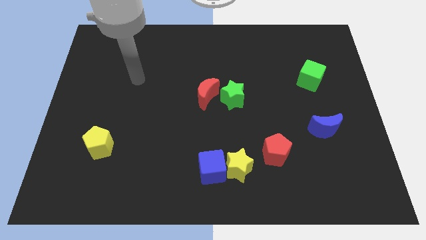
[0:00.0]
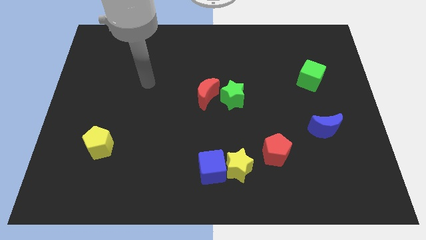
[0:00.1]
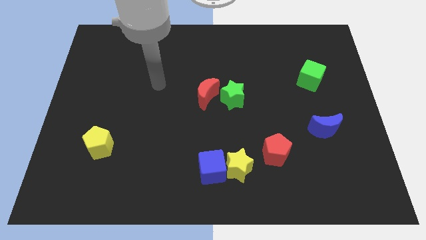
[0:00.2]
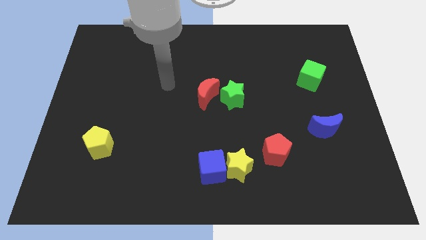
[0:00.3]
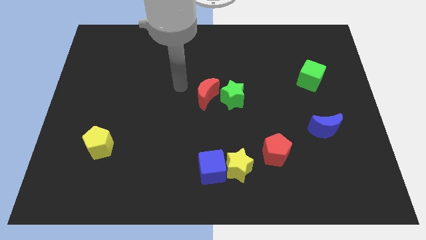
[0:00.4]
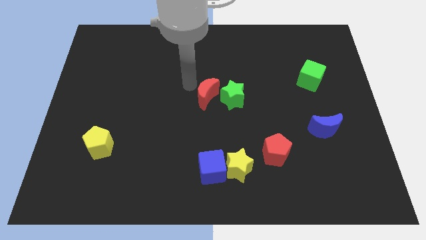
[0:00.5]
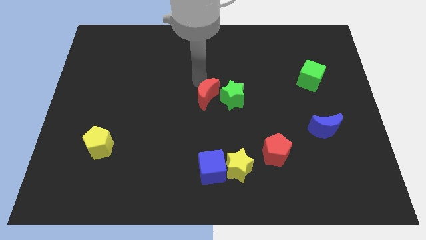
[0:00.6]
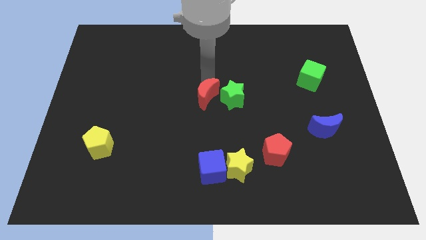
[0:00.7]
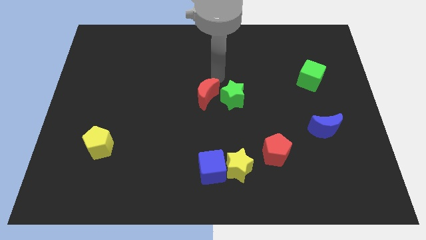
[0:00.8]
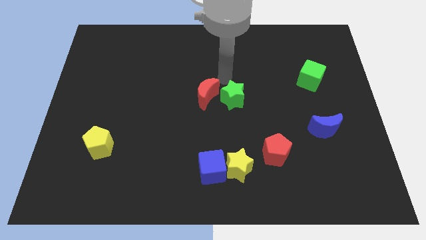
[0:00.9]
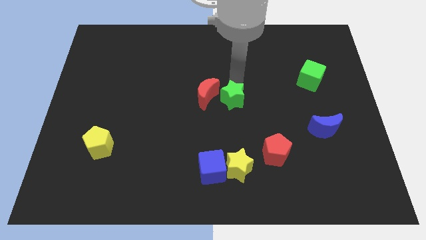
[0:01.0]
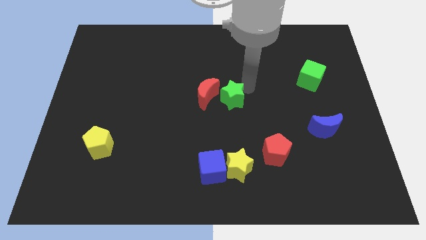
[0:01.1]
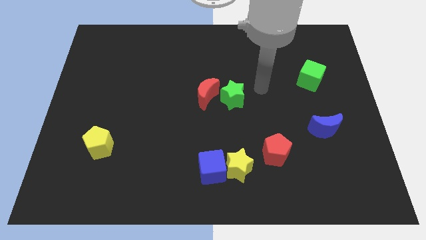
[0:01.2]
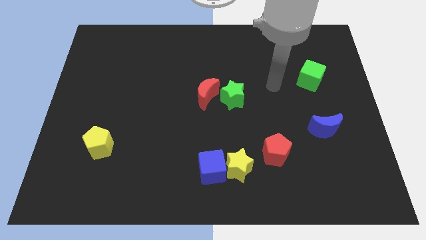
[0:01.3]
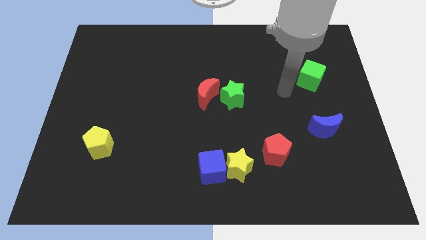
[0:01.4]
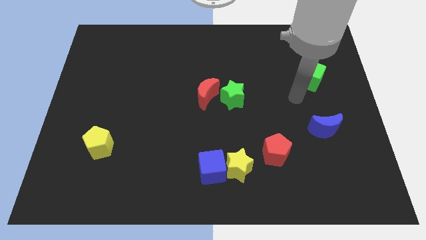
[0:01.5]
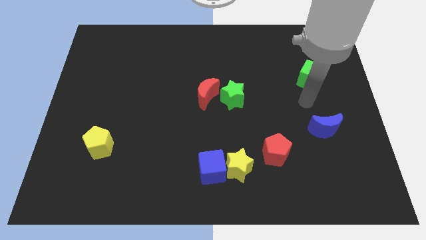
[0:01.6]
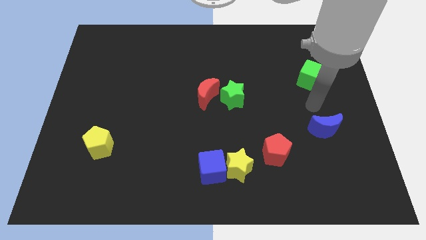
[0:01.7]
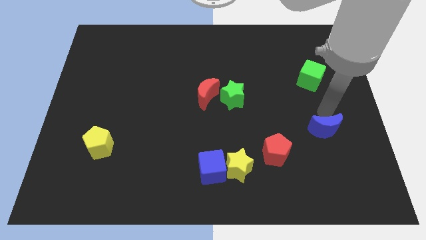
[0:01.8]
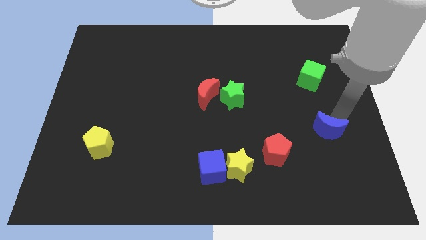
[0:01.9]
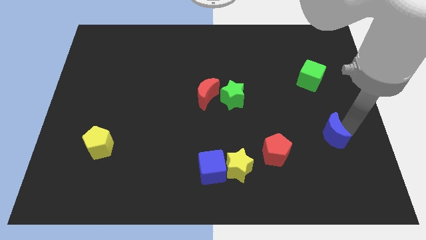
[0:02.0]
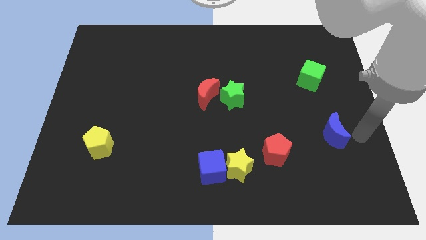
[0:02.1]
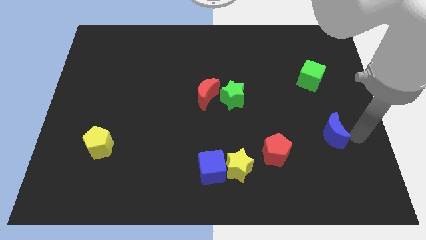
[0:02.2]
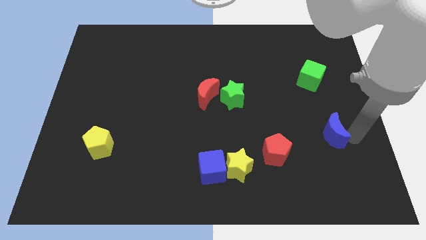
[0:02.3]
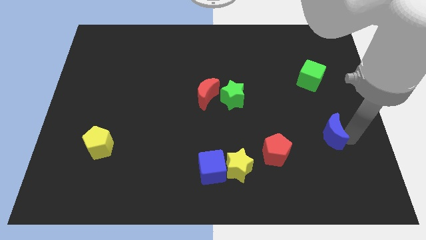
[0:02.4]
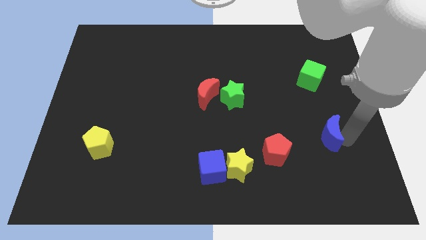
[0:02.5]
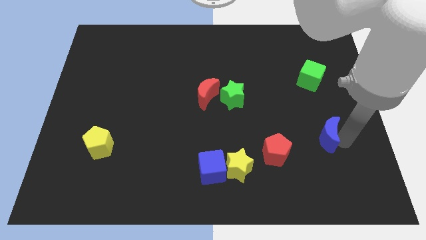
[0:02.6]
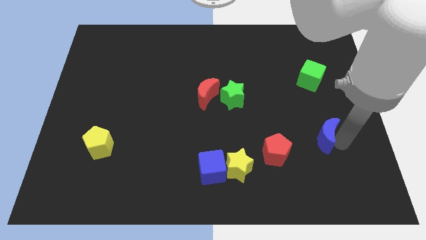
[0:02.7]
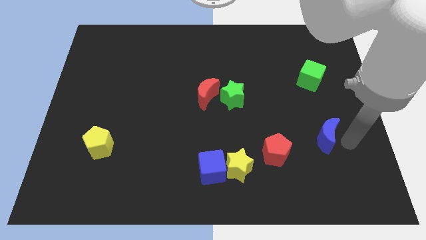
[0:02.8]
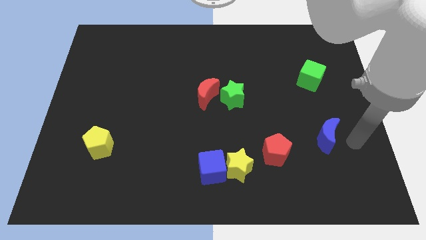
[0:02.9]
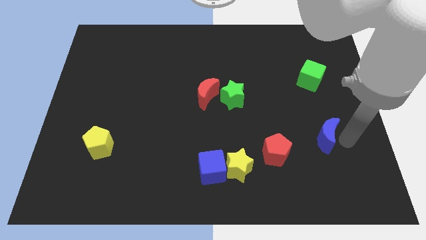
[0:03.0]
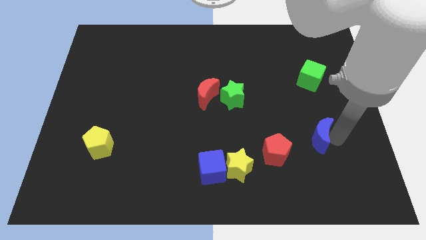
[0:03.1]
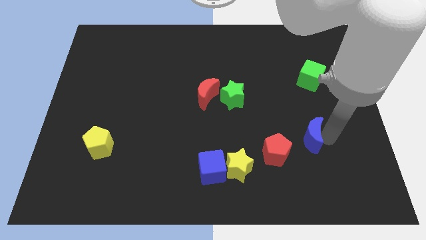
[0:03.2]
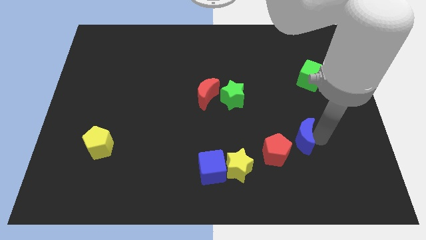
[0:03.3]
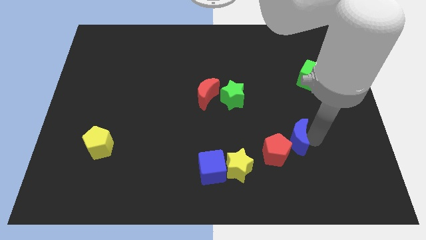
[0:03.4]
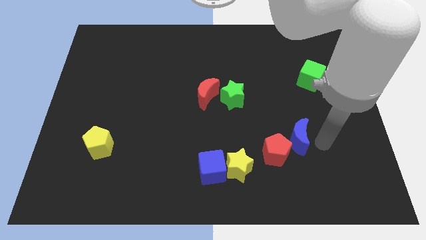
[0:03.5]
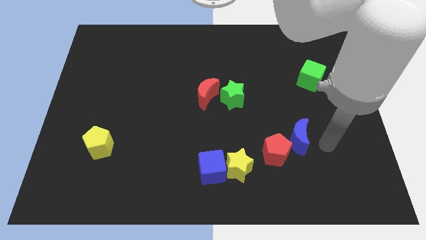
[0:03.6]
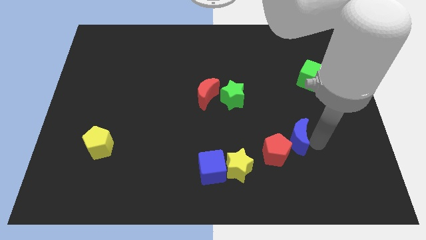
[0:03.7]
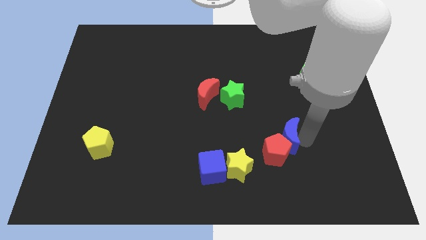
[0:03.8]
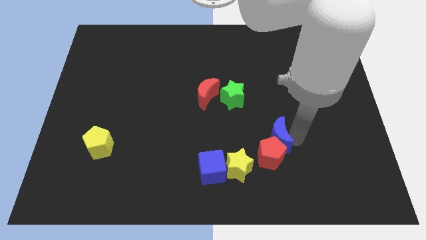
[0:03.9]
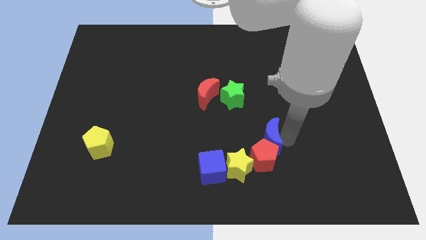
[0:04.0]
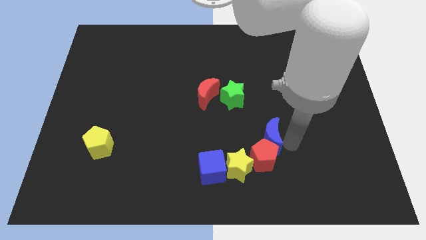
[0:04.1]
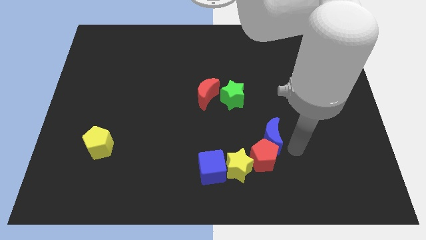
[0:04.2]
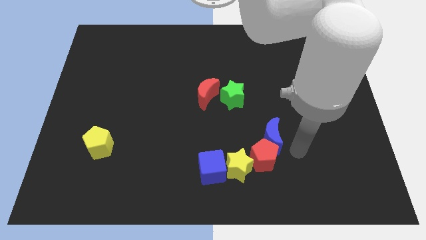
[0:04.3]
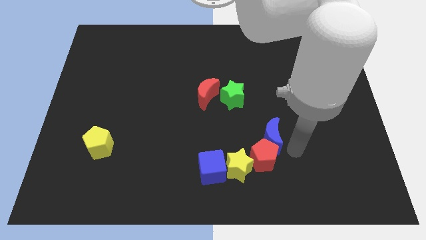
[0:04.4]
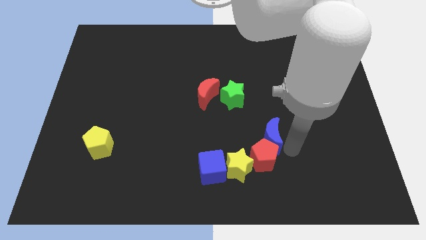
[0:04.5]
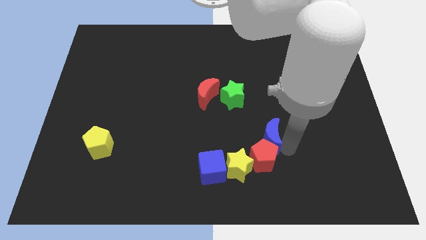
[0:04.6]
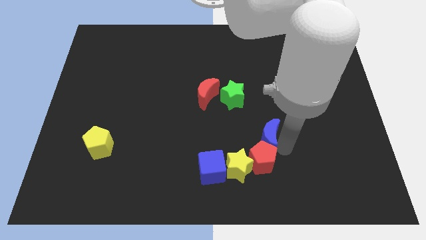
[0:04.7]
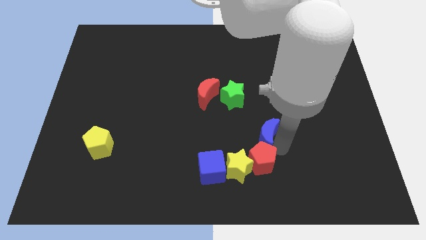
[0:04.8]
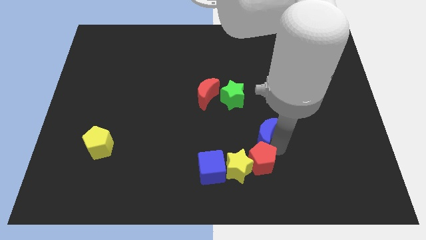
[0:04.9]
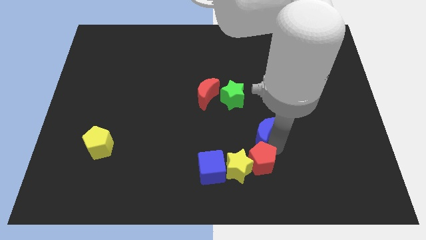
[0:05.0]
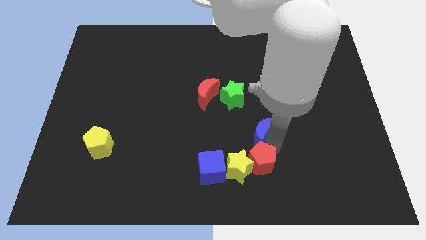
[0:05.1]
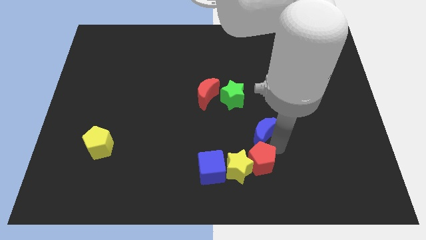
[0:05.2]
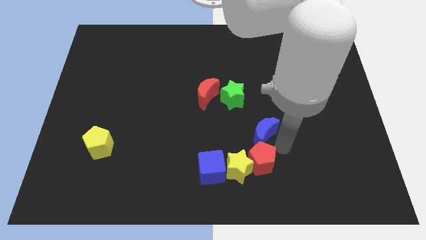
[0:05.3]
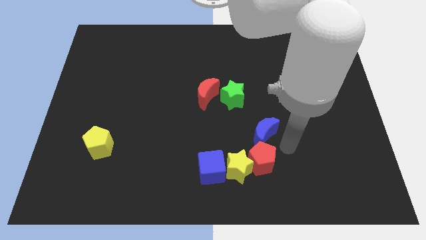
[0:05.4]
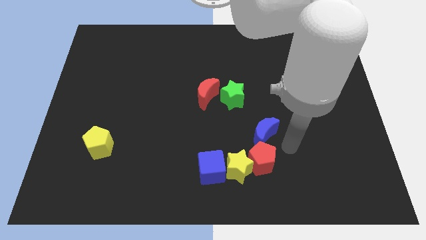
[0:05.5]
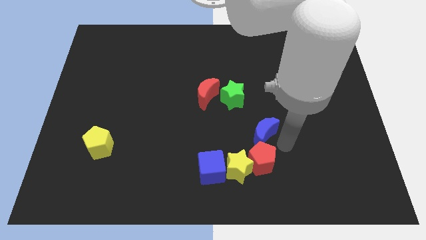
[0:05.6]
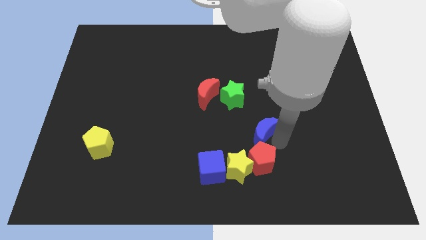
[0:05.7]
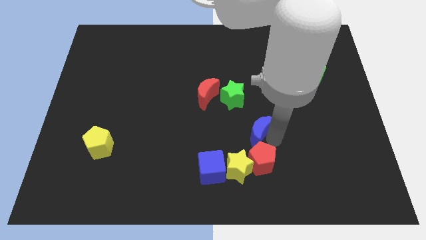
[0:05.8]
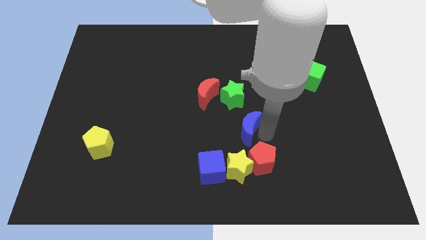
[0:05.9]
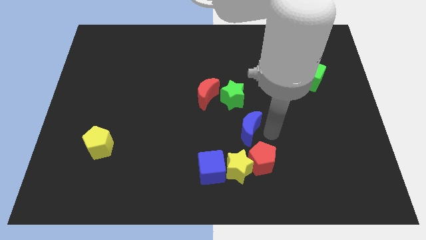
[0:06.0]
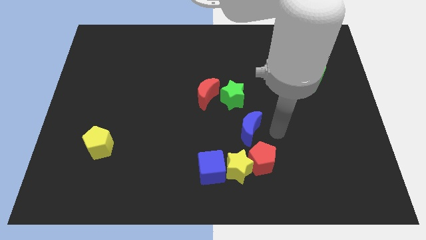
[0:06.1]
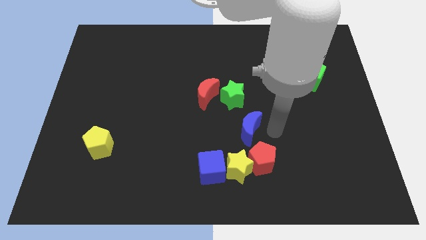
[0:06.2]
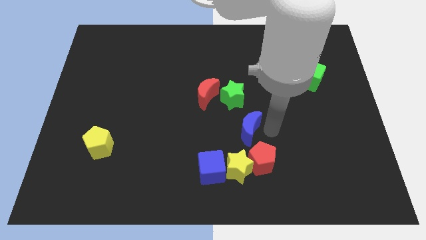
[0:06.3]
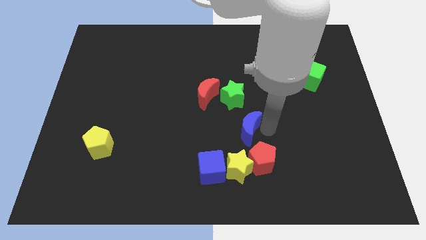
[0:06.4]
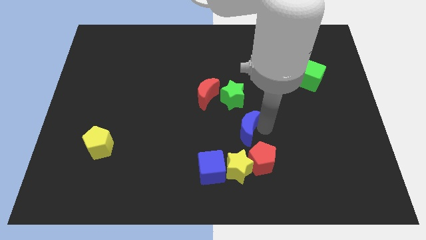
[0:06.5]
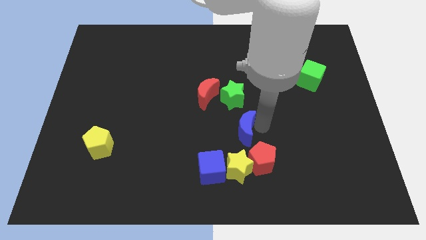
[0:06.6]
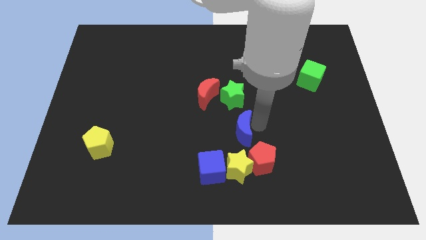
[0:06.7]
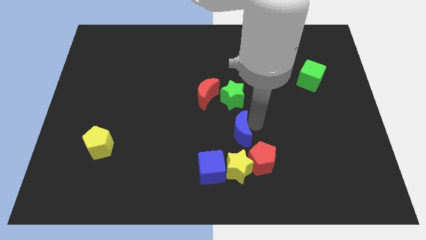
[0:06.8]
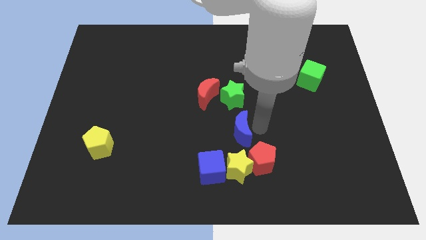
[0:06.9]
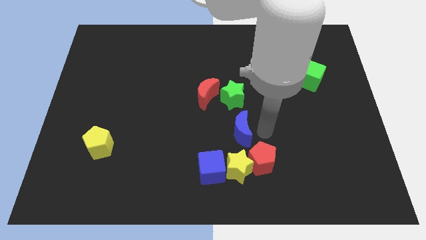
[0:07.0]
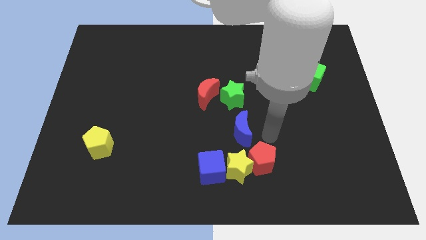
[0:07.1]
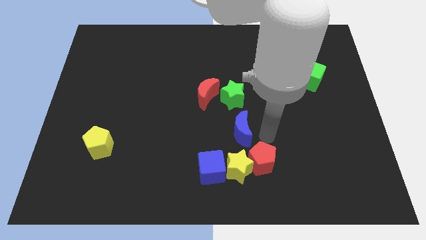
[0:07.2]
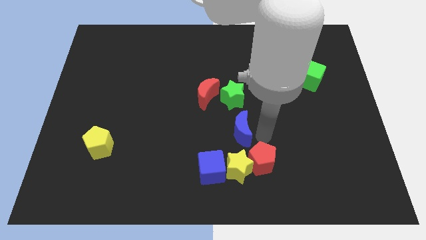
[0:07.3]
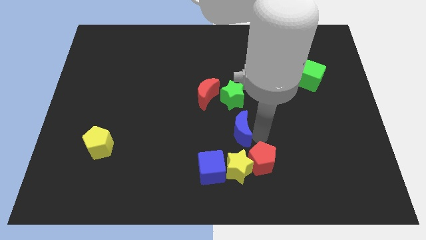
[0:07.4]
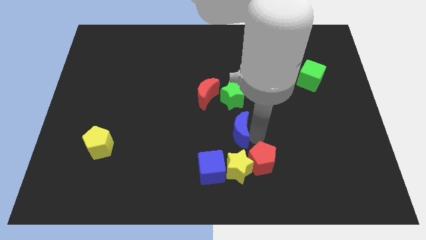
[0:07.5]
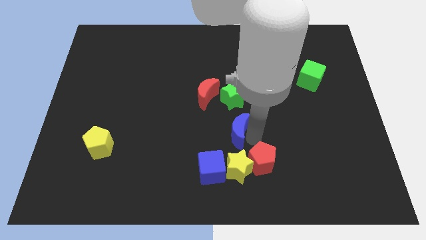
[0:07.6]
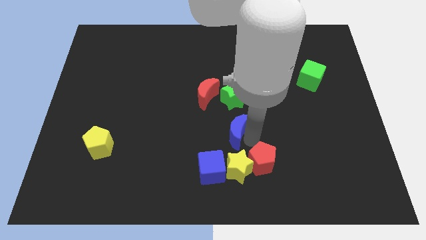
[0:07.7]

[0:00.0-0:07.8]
push the blue moon to the left

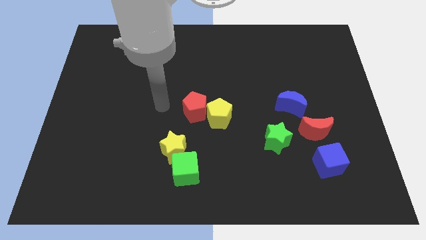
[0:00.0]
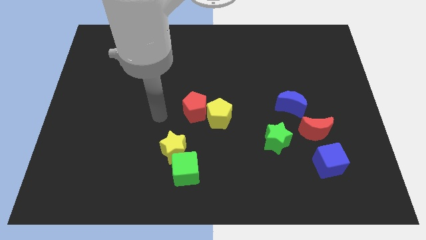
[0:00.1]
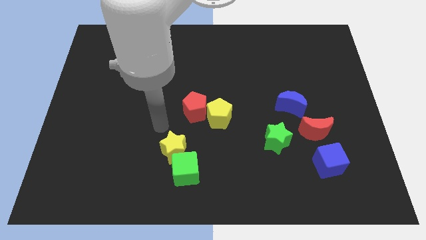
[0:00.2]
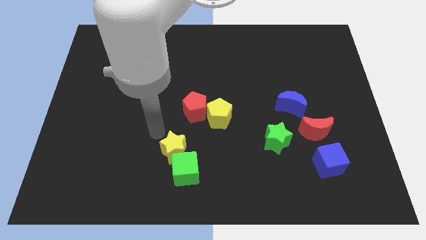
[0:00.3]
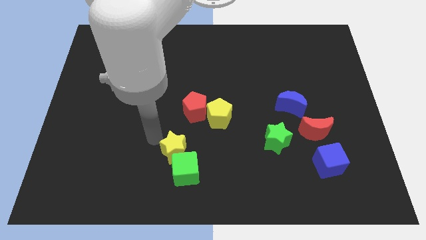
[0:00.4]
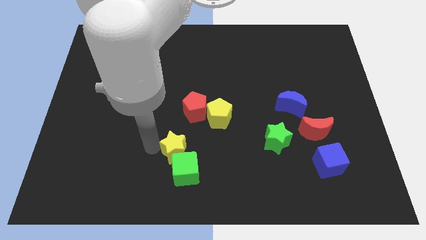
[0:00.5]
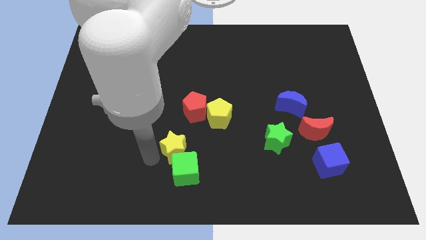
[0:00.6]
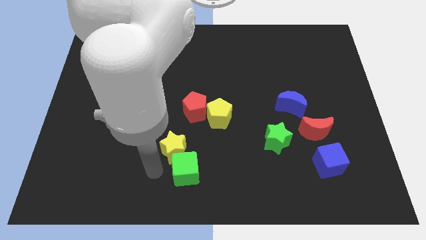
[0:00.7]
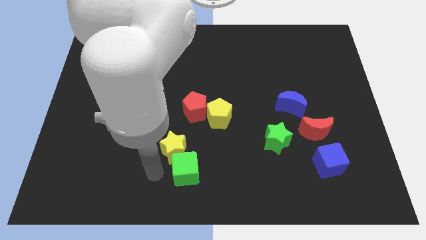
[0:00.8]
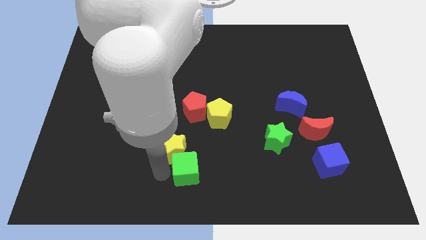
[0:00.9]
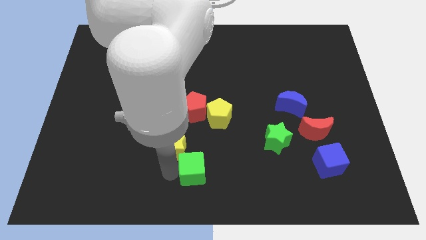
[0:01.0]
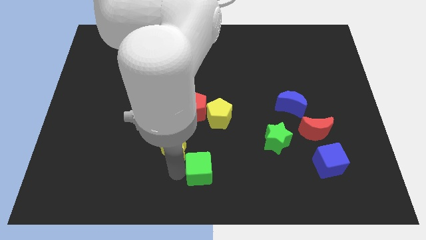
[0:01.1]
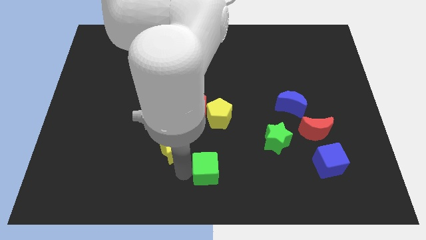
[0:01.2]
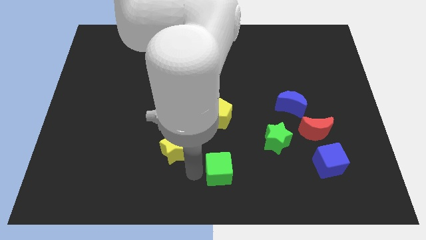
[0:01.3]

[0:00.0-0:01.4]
slide the green cube a little to the right
